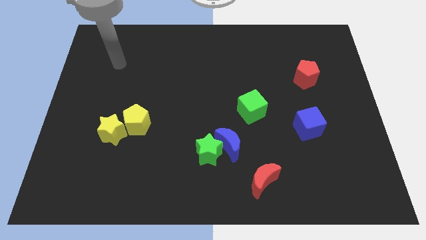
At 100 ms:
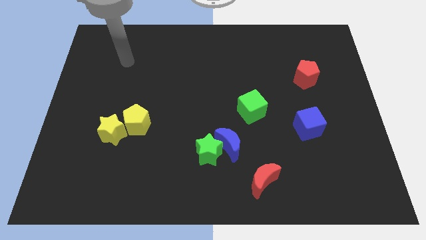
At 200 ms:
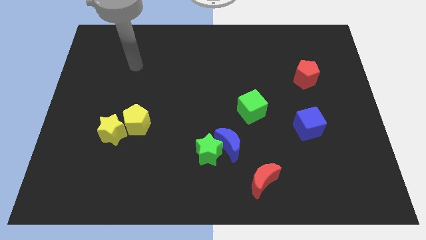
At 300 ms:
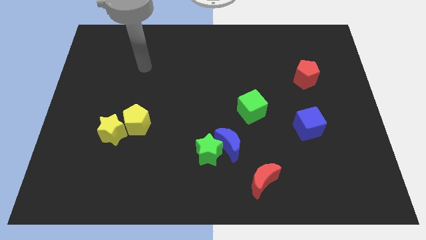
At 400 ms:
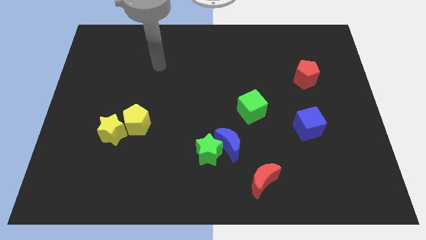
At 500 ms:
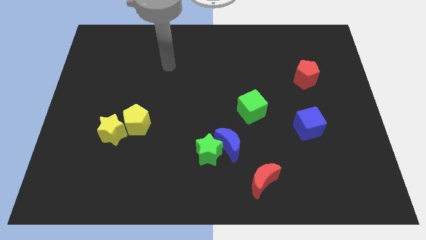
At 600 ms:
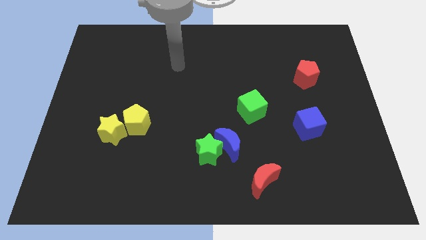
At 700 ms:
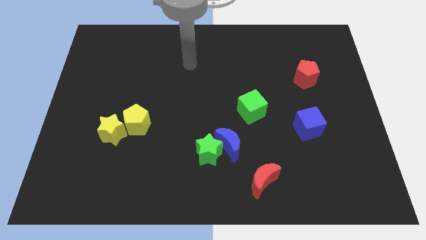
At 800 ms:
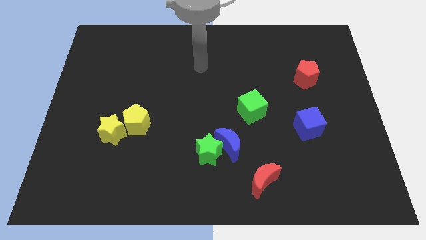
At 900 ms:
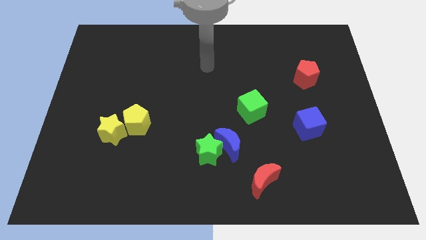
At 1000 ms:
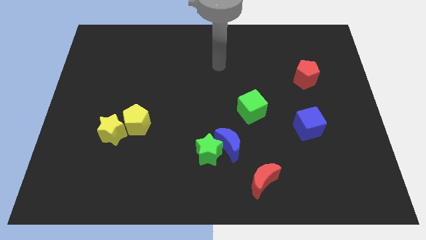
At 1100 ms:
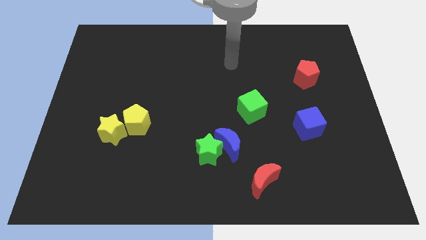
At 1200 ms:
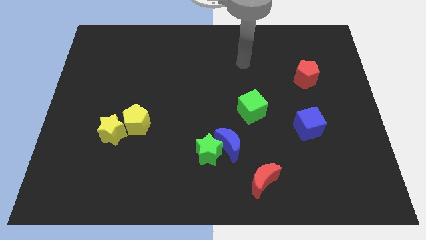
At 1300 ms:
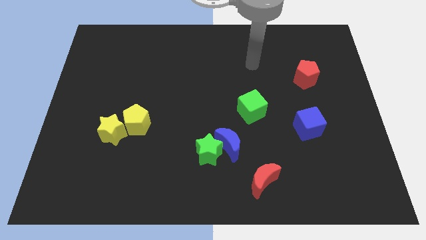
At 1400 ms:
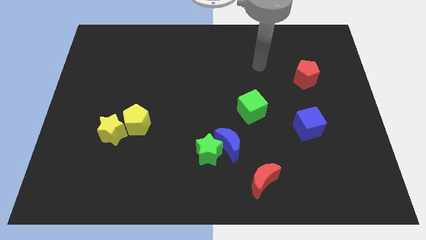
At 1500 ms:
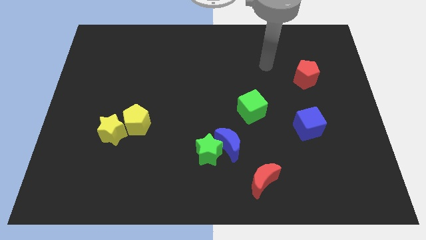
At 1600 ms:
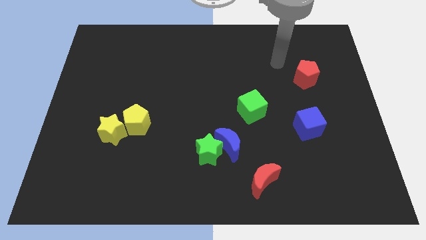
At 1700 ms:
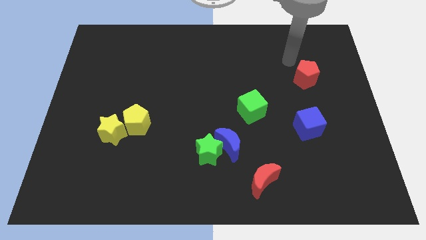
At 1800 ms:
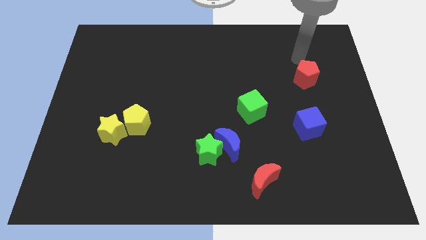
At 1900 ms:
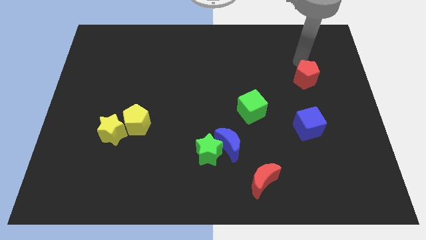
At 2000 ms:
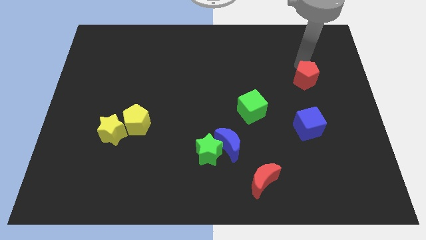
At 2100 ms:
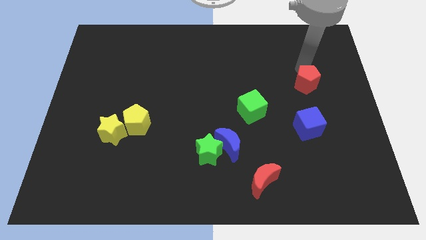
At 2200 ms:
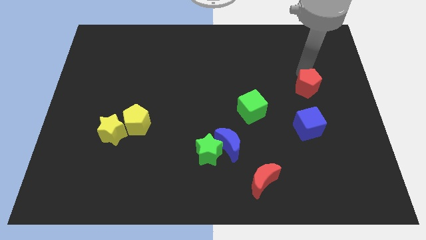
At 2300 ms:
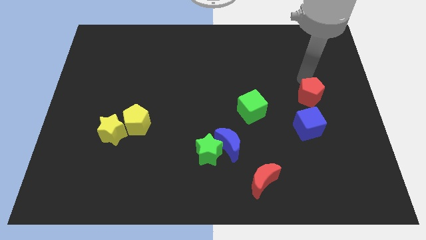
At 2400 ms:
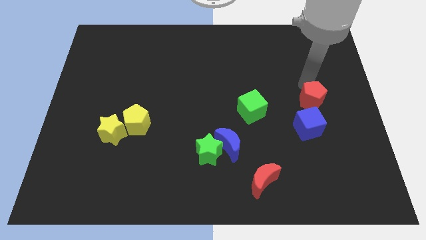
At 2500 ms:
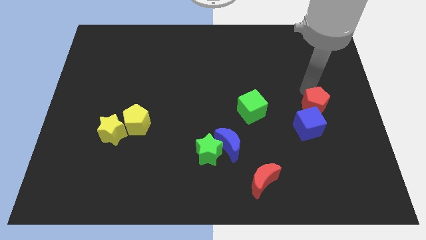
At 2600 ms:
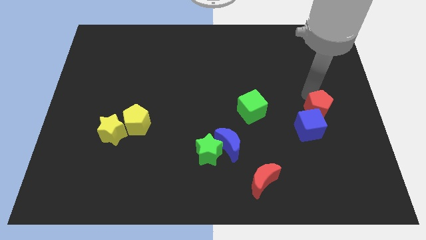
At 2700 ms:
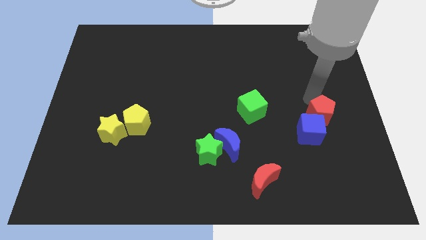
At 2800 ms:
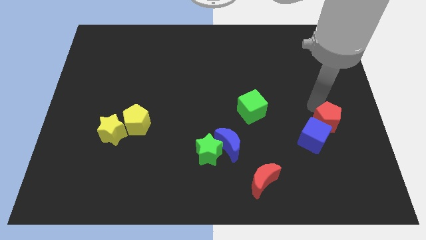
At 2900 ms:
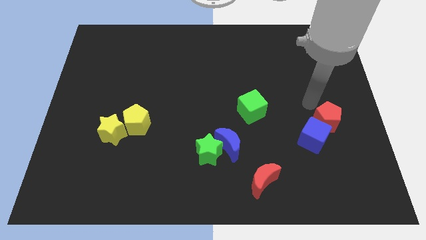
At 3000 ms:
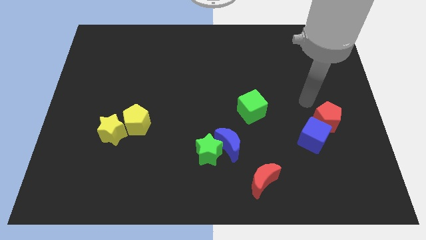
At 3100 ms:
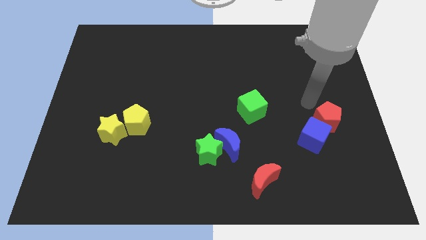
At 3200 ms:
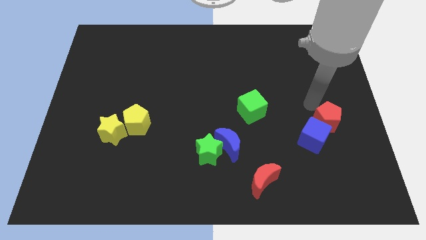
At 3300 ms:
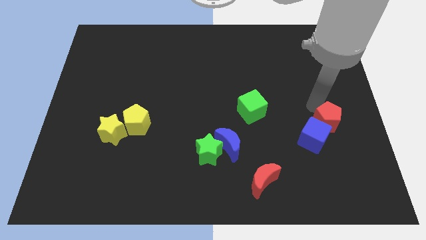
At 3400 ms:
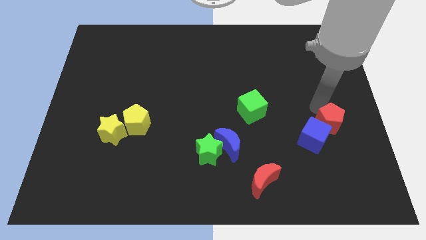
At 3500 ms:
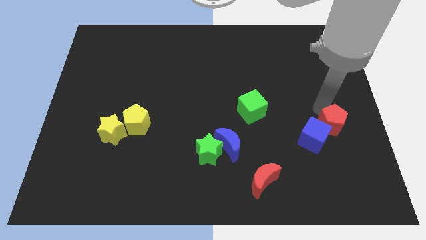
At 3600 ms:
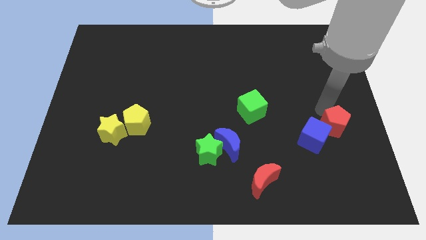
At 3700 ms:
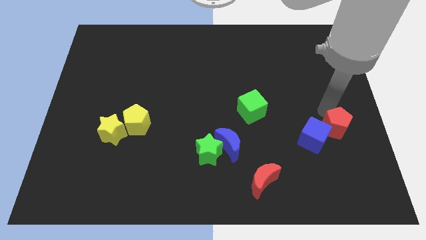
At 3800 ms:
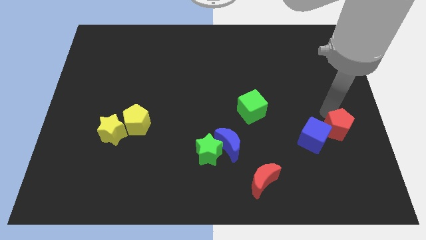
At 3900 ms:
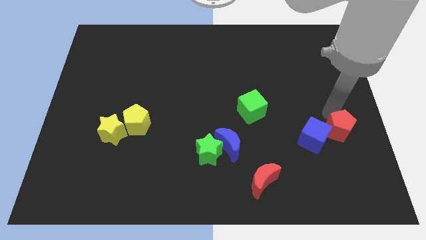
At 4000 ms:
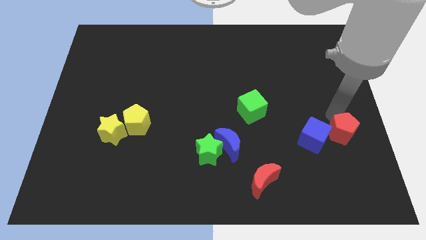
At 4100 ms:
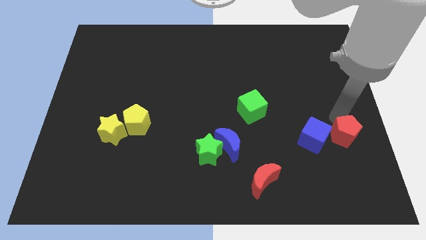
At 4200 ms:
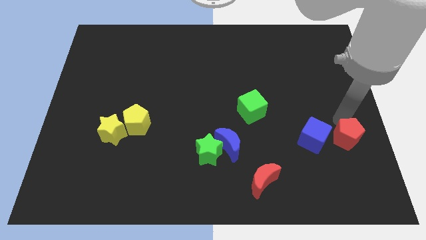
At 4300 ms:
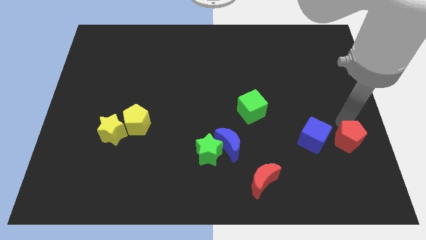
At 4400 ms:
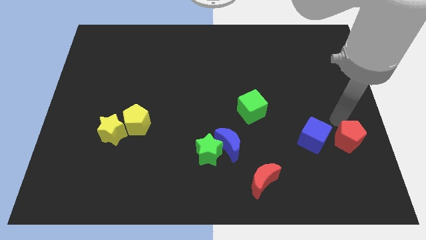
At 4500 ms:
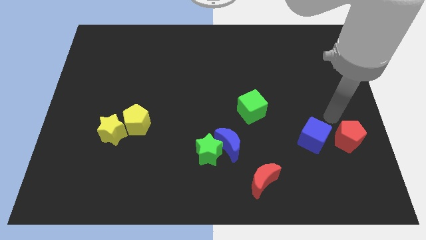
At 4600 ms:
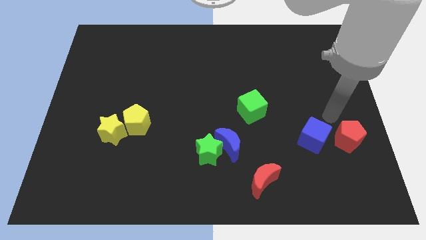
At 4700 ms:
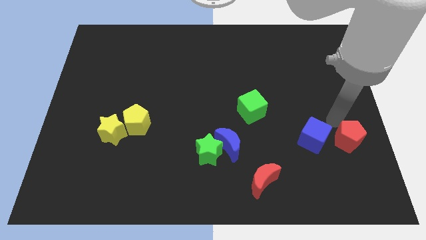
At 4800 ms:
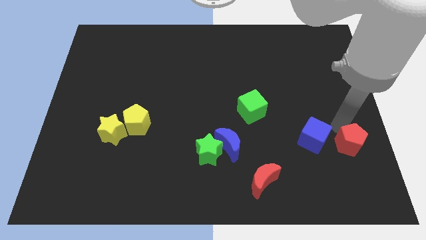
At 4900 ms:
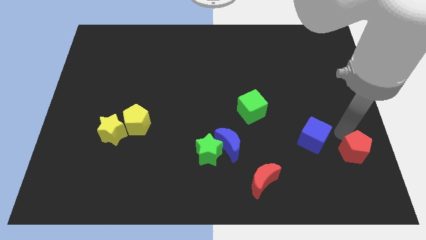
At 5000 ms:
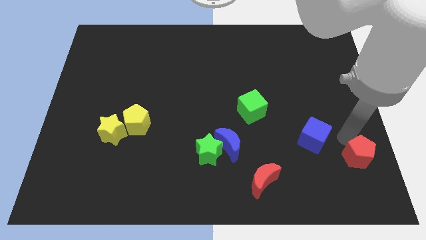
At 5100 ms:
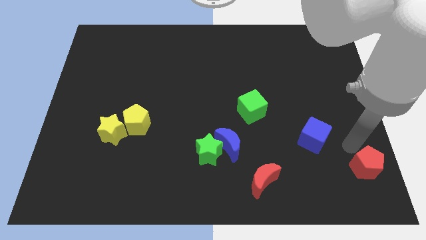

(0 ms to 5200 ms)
slide the red pentagon to the bottom right of the board

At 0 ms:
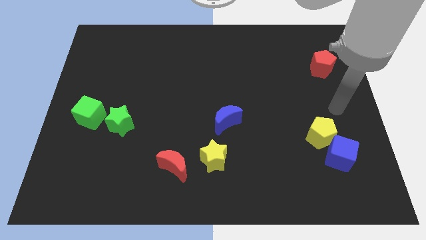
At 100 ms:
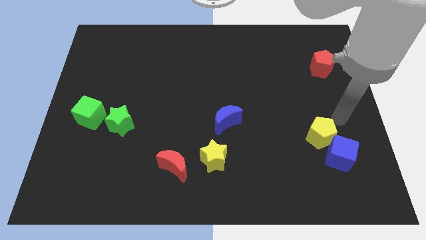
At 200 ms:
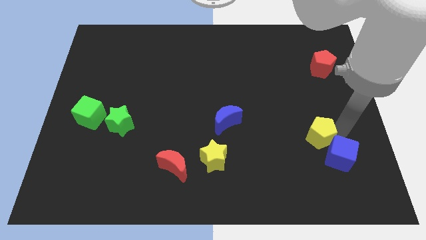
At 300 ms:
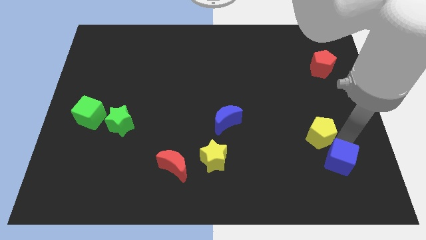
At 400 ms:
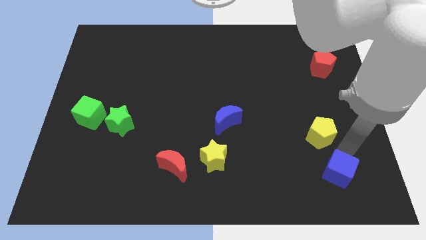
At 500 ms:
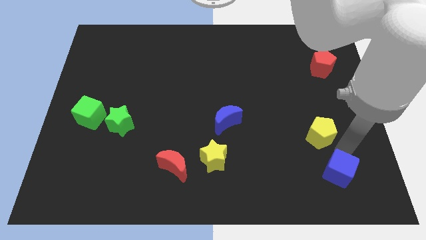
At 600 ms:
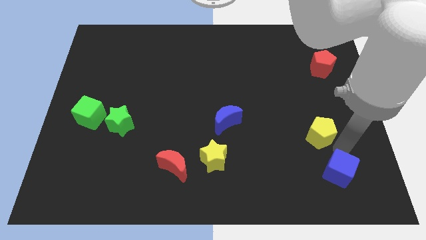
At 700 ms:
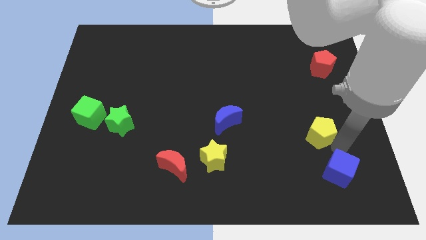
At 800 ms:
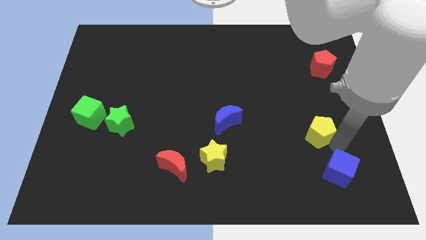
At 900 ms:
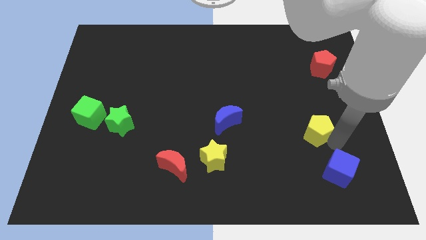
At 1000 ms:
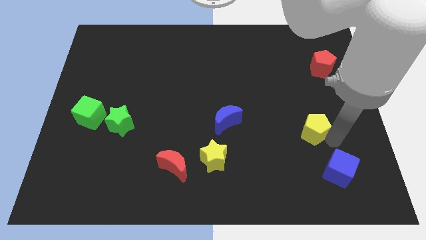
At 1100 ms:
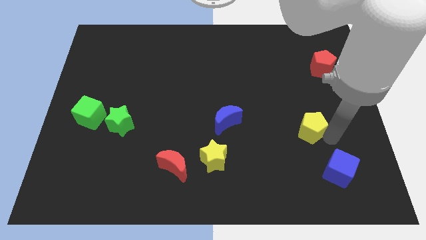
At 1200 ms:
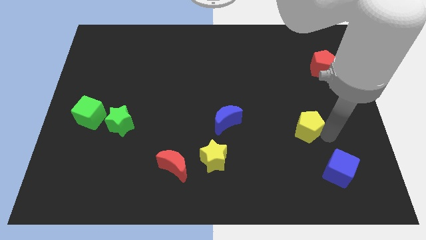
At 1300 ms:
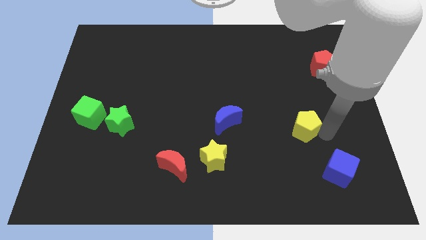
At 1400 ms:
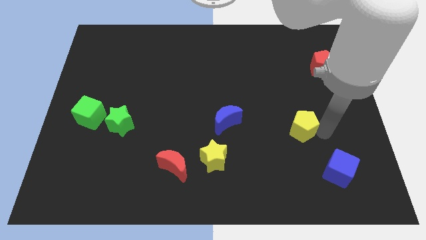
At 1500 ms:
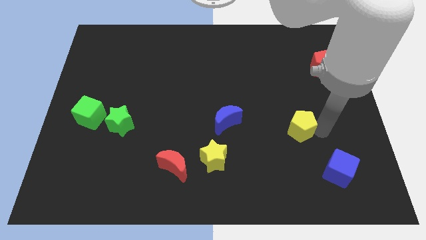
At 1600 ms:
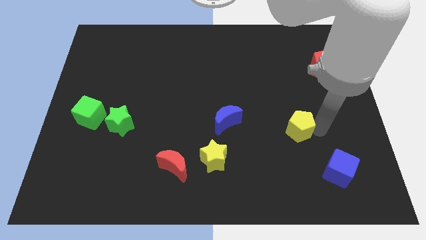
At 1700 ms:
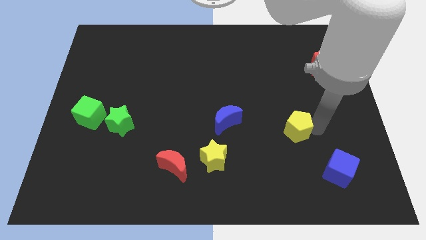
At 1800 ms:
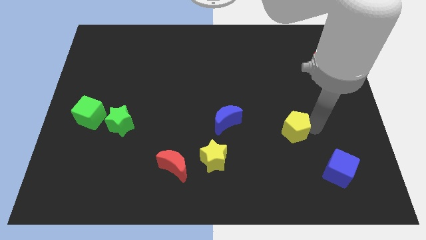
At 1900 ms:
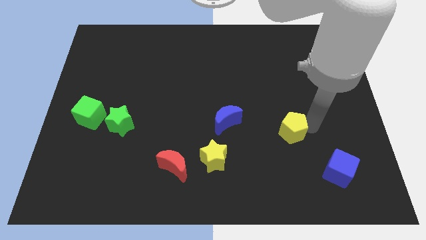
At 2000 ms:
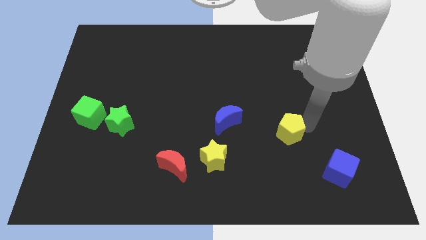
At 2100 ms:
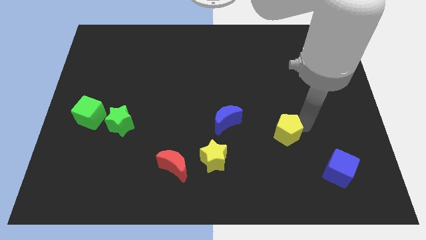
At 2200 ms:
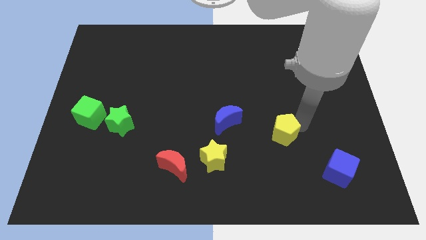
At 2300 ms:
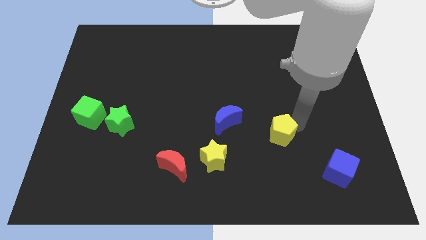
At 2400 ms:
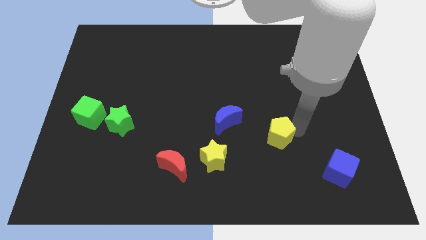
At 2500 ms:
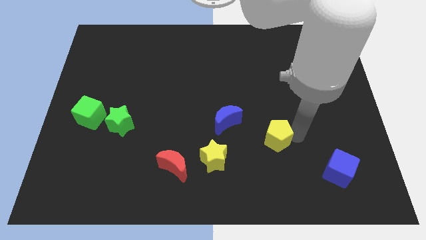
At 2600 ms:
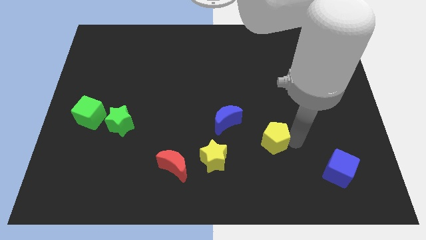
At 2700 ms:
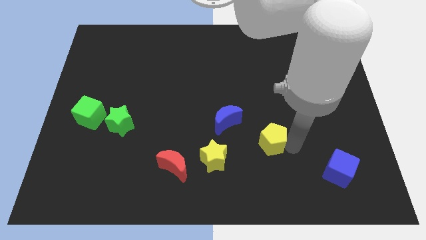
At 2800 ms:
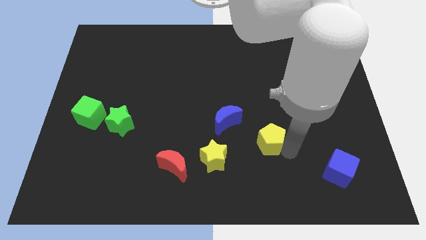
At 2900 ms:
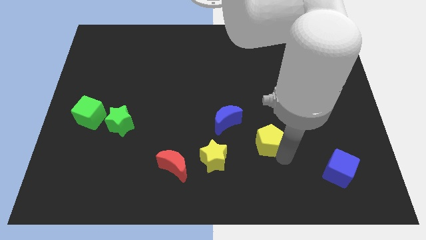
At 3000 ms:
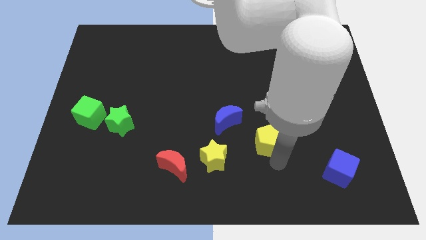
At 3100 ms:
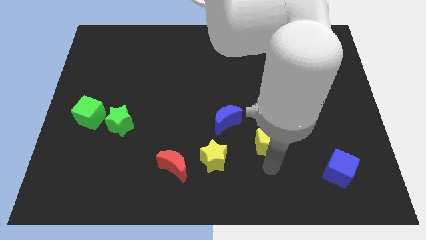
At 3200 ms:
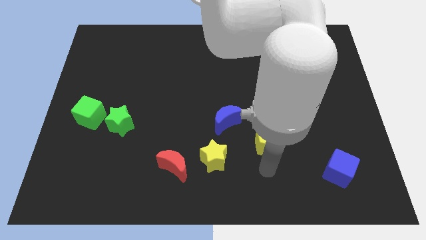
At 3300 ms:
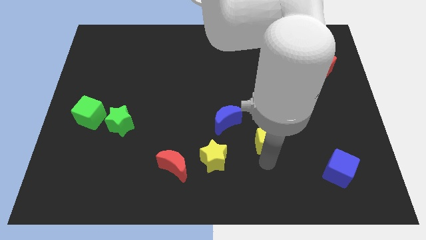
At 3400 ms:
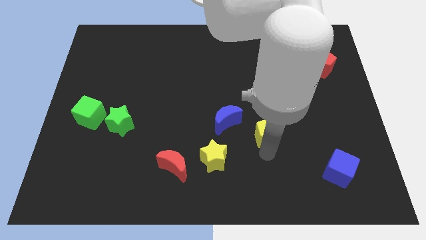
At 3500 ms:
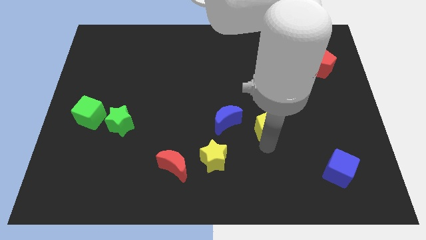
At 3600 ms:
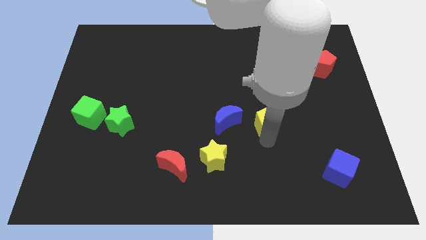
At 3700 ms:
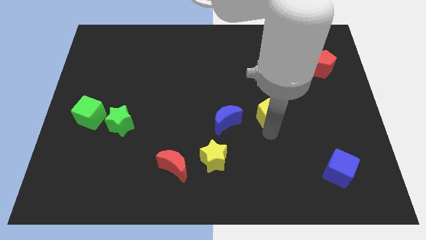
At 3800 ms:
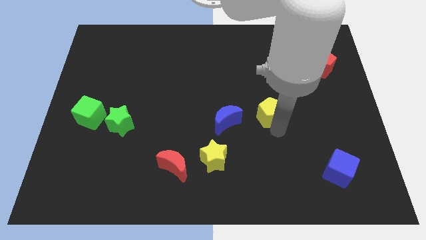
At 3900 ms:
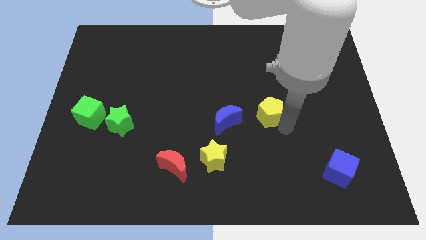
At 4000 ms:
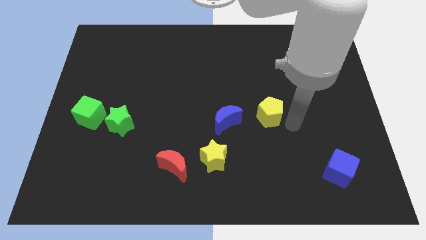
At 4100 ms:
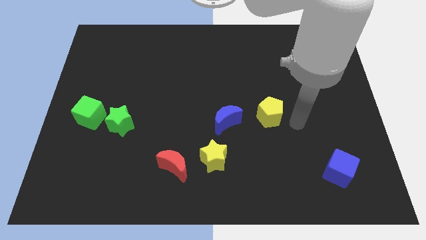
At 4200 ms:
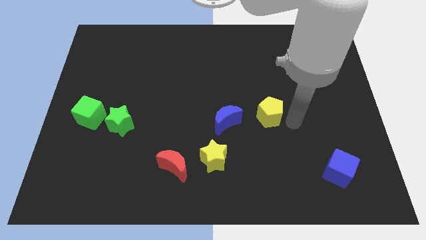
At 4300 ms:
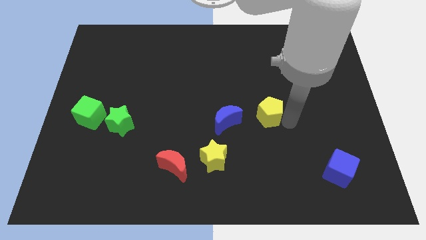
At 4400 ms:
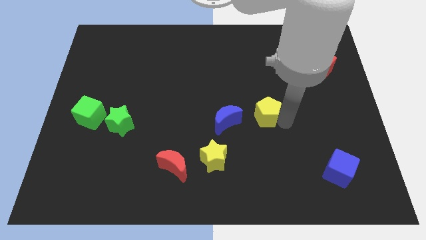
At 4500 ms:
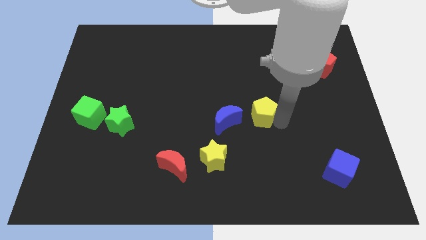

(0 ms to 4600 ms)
push the yellow pentagon to the middle
